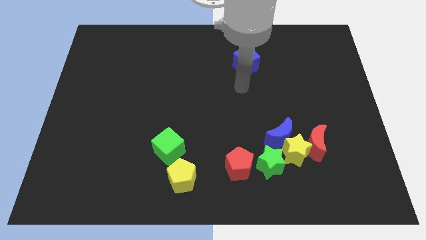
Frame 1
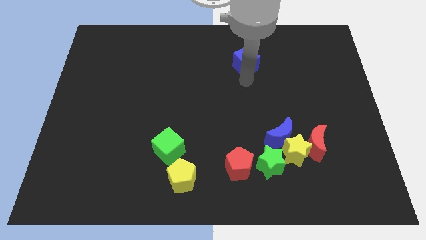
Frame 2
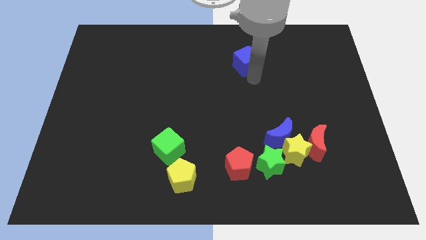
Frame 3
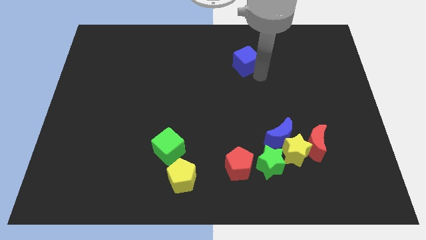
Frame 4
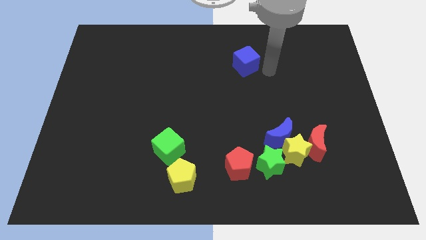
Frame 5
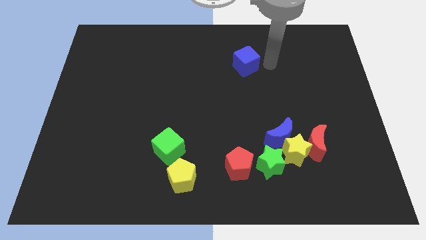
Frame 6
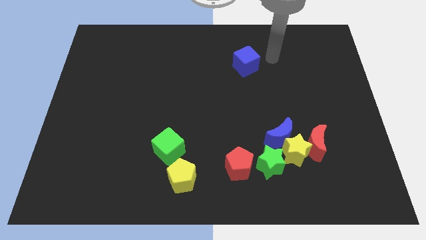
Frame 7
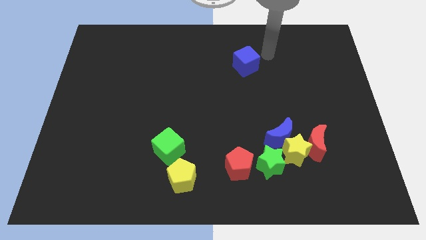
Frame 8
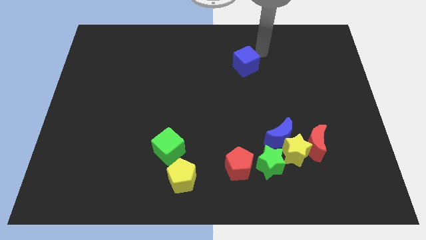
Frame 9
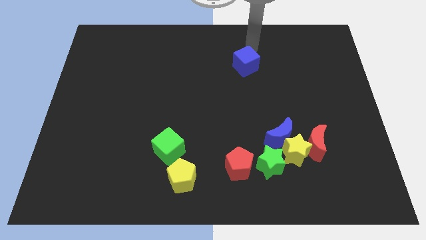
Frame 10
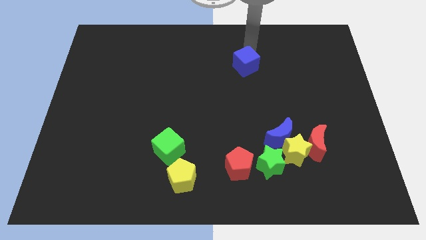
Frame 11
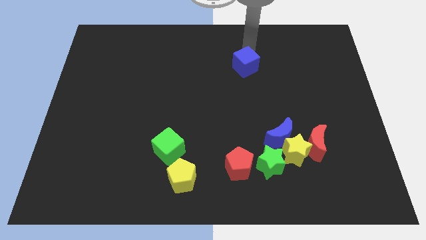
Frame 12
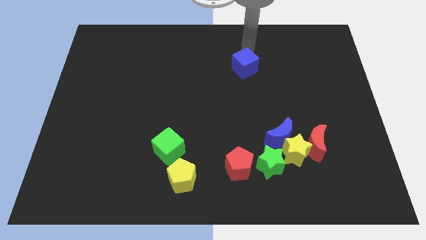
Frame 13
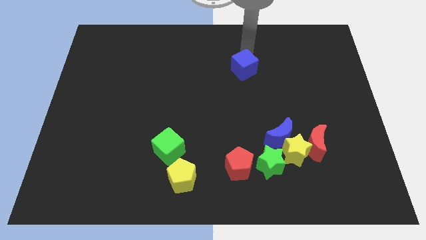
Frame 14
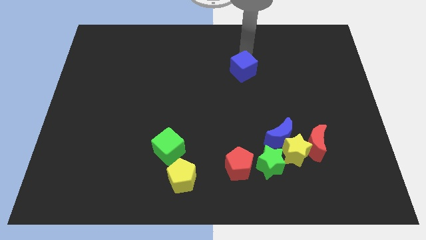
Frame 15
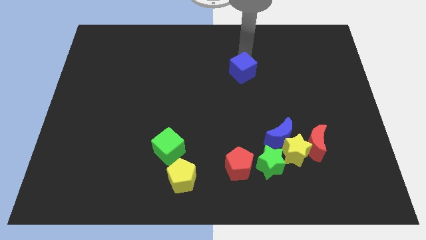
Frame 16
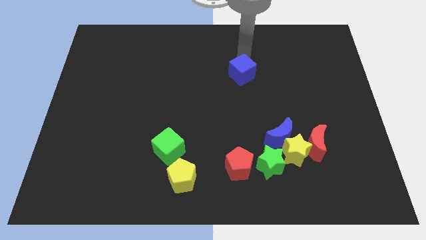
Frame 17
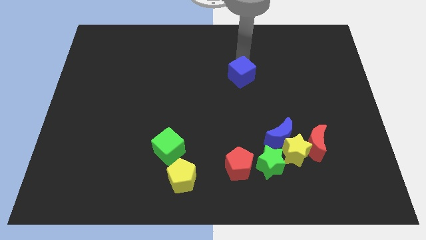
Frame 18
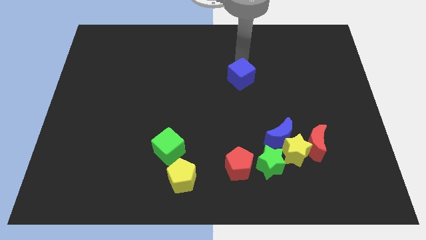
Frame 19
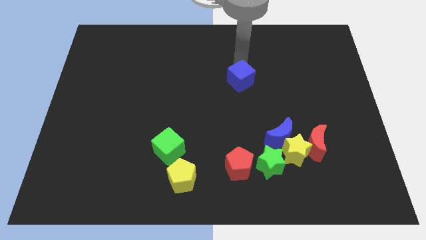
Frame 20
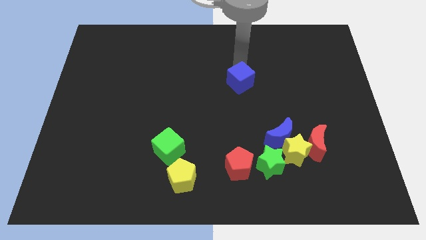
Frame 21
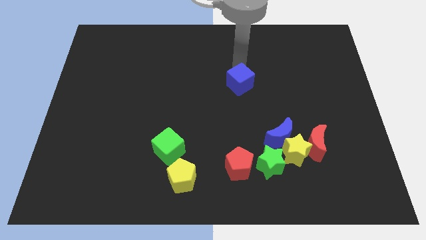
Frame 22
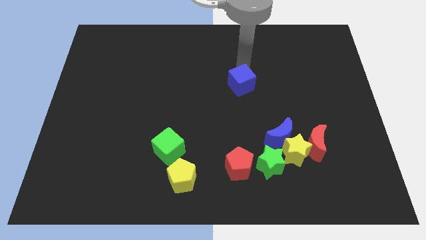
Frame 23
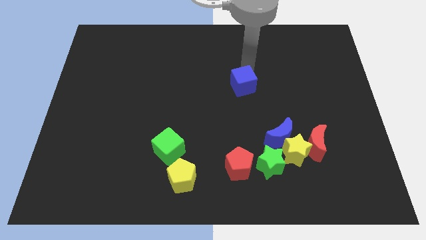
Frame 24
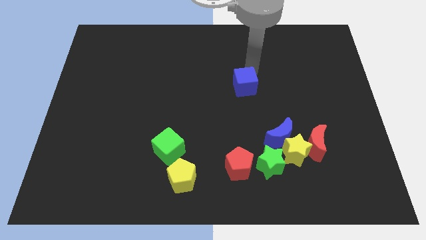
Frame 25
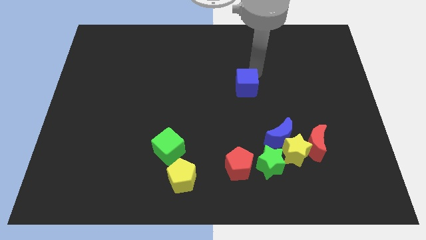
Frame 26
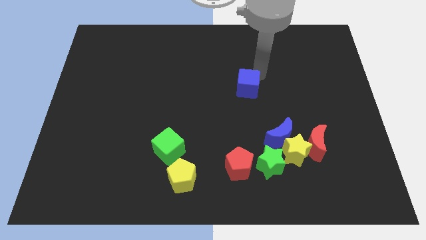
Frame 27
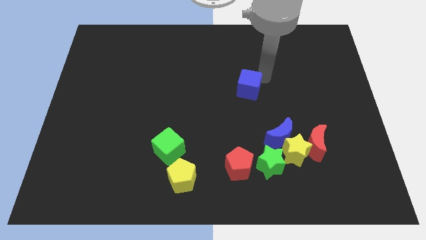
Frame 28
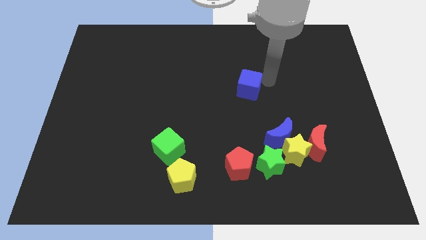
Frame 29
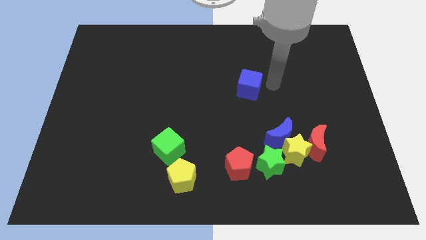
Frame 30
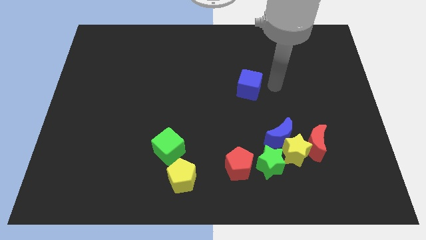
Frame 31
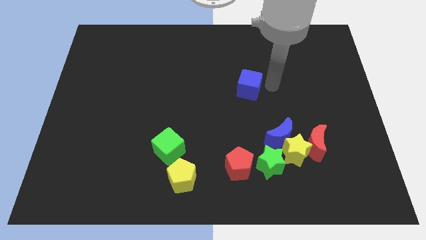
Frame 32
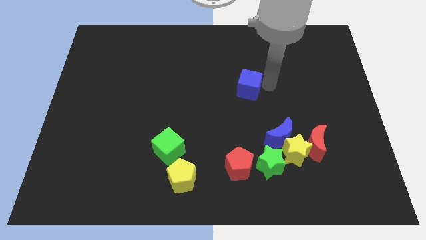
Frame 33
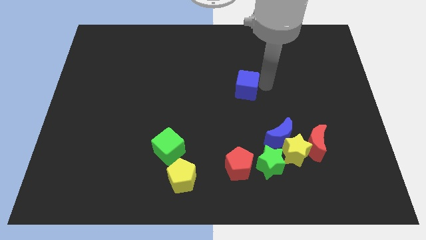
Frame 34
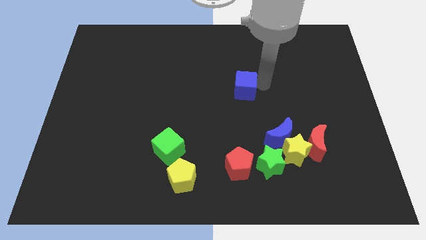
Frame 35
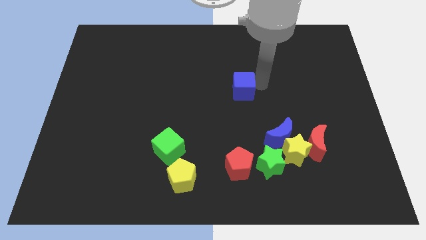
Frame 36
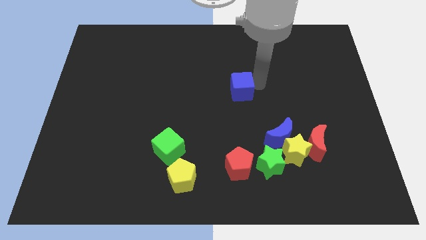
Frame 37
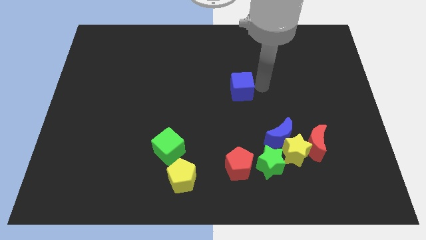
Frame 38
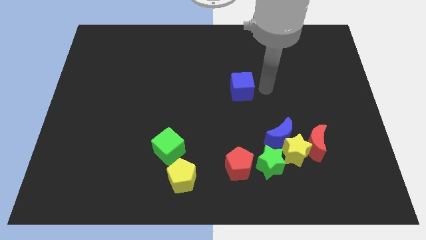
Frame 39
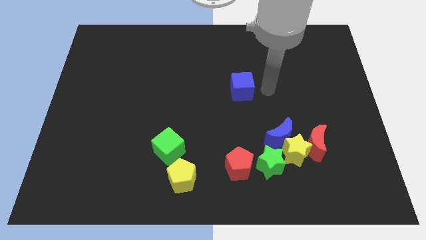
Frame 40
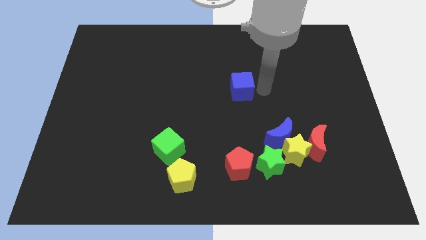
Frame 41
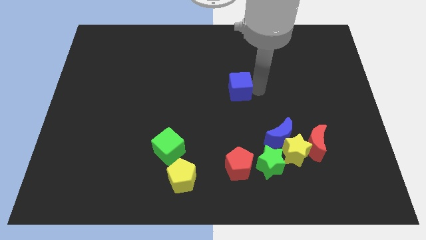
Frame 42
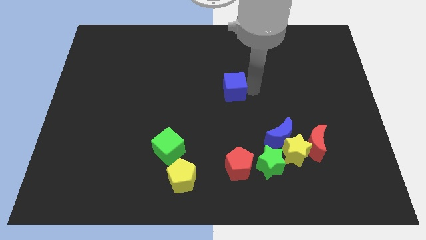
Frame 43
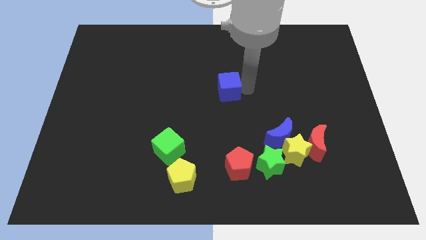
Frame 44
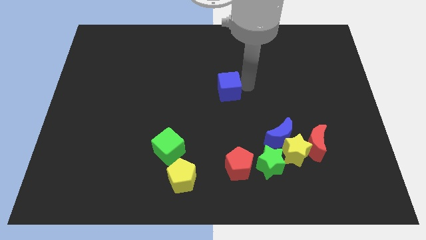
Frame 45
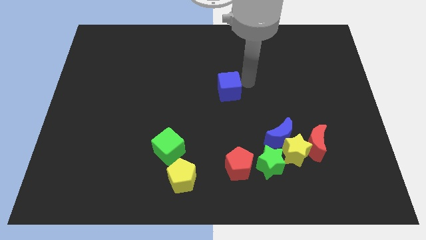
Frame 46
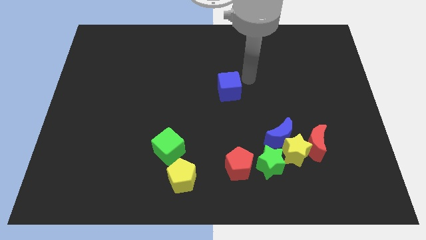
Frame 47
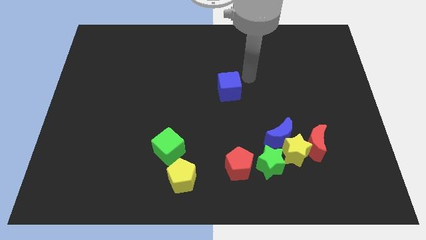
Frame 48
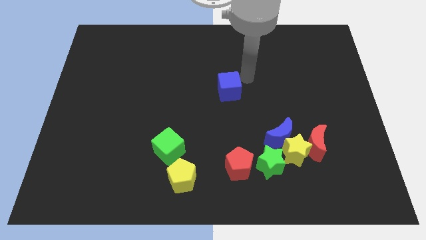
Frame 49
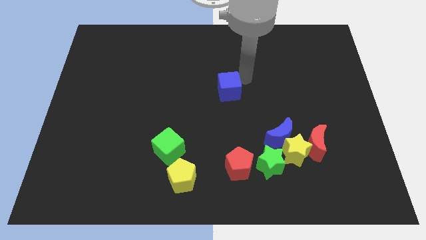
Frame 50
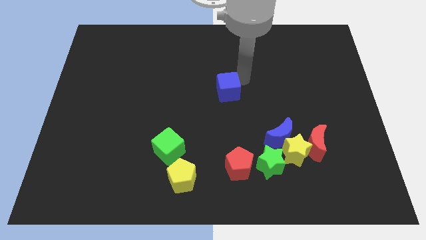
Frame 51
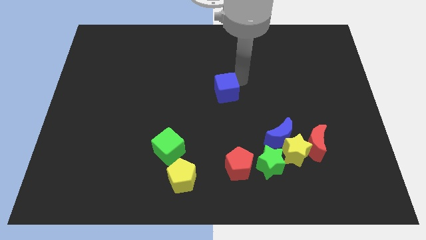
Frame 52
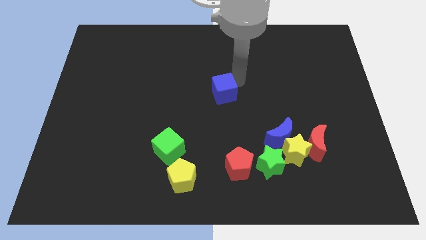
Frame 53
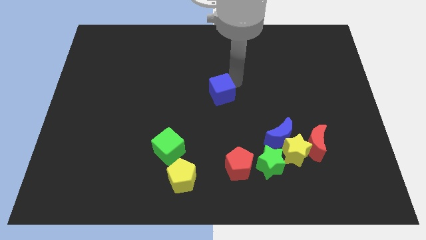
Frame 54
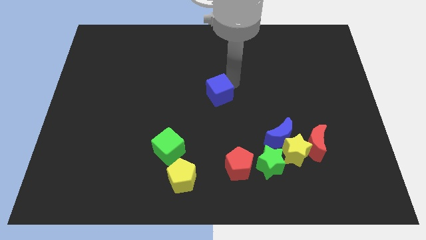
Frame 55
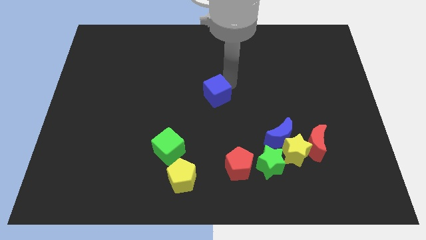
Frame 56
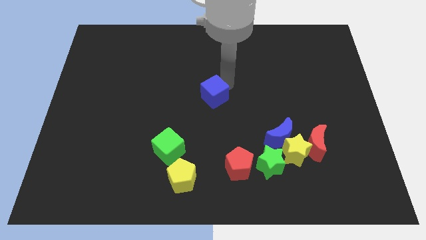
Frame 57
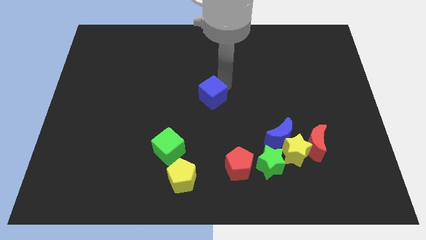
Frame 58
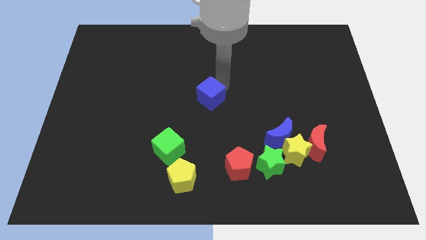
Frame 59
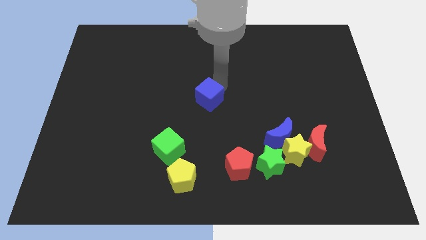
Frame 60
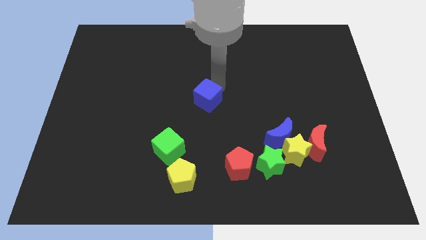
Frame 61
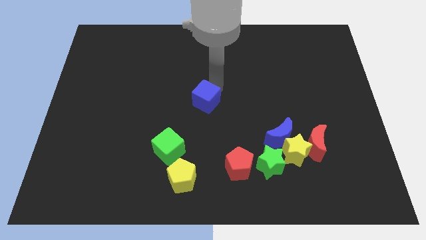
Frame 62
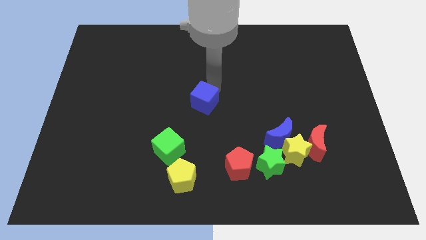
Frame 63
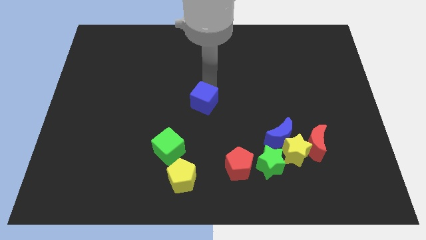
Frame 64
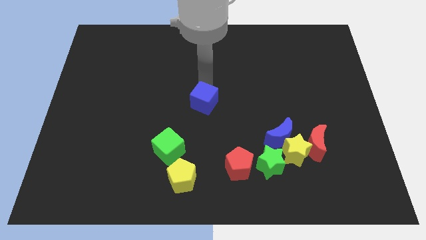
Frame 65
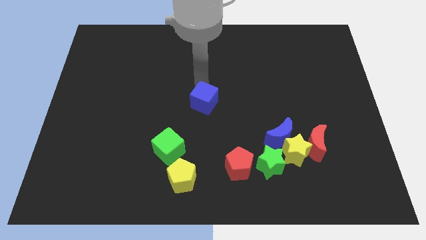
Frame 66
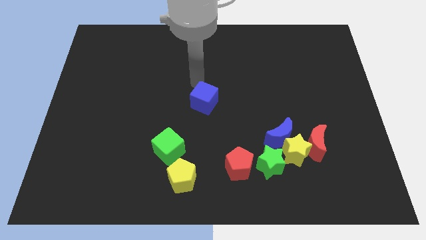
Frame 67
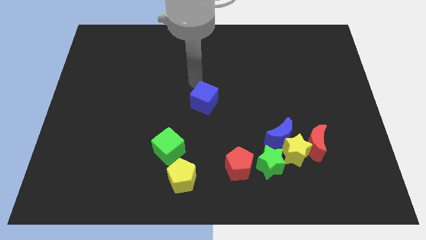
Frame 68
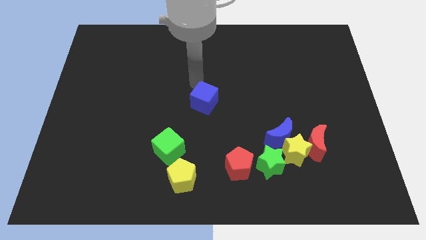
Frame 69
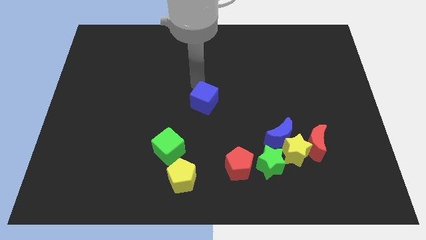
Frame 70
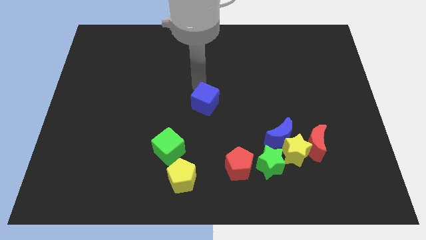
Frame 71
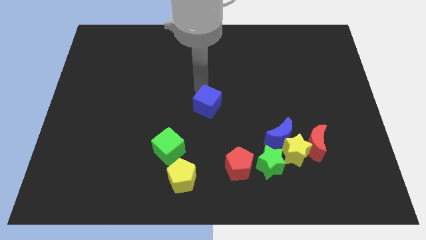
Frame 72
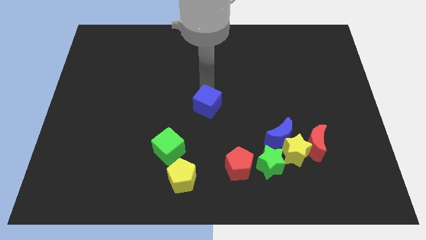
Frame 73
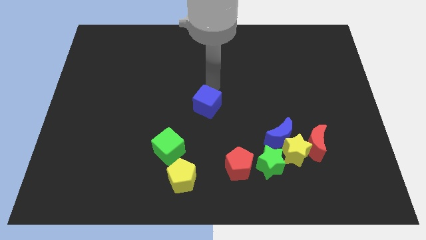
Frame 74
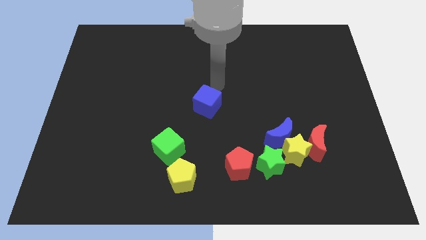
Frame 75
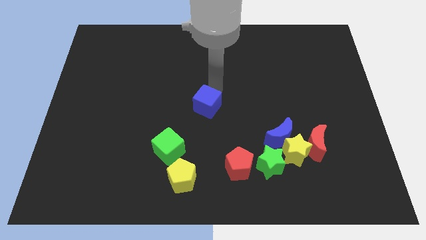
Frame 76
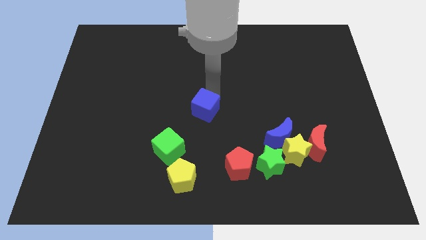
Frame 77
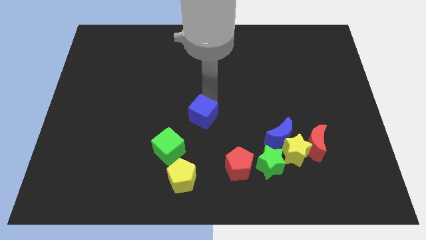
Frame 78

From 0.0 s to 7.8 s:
slide the blue cube diagonally up and to the right of the green cube
